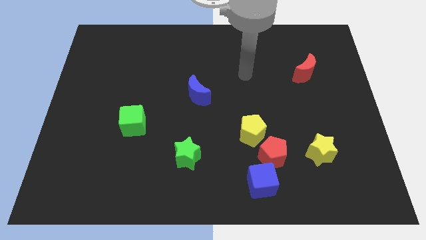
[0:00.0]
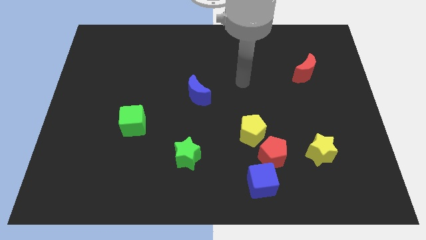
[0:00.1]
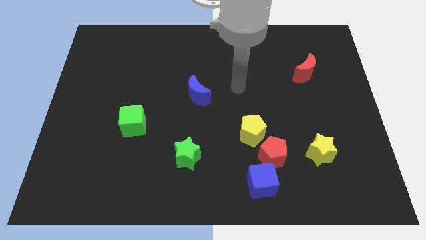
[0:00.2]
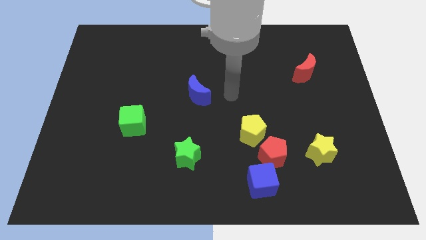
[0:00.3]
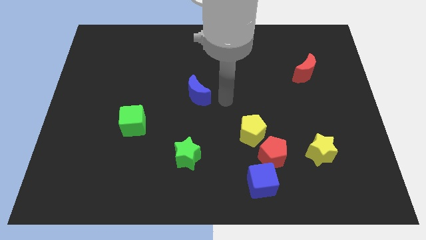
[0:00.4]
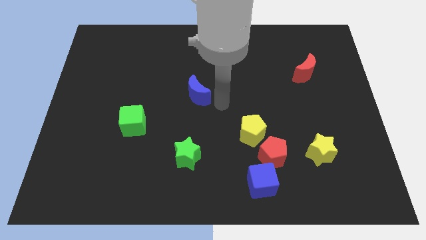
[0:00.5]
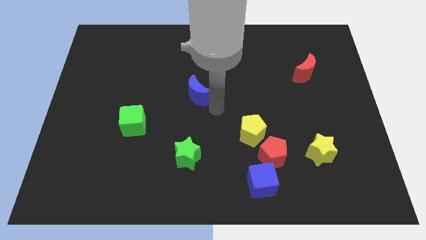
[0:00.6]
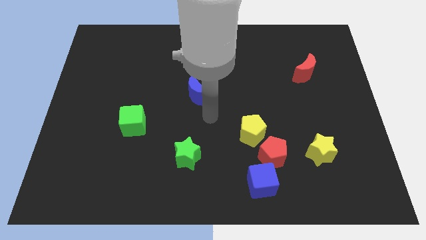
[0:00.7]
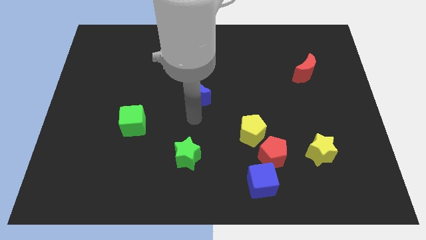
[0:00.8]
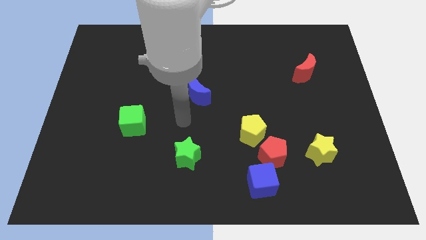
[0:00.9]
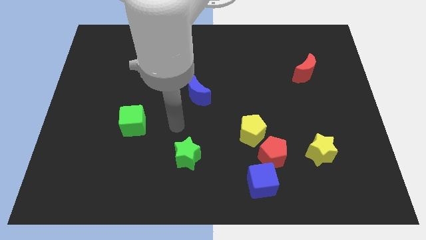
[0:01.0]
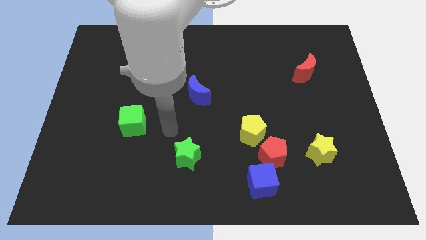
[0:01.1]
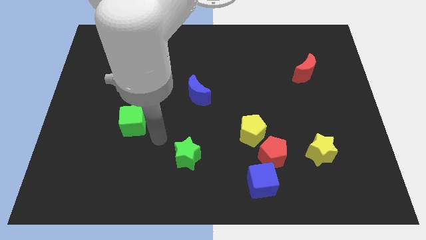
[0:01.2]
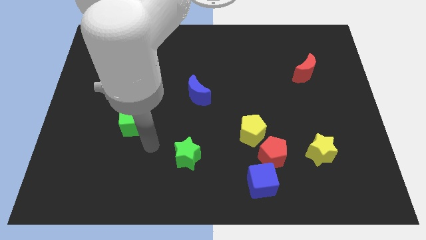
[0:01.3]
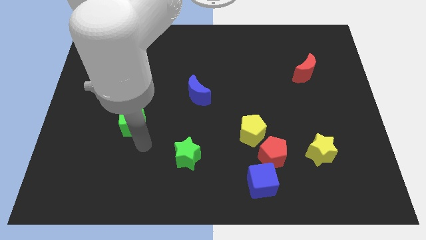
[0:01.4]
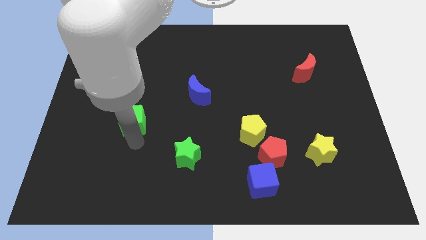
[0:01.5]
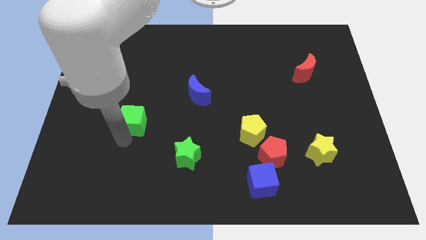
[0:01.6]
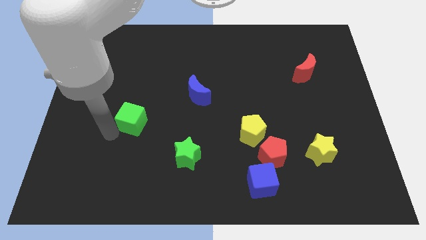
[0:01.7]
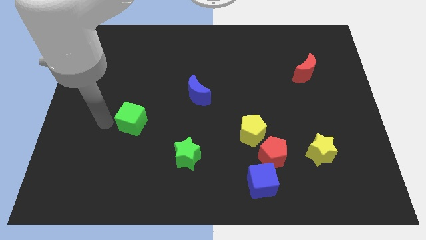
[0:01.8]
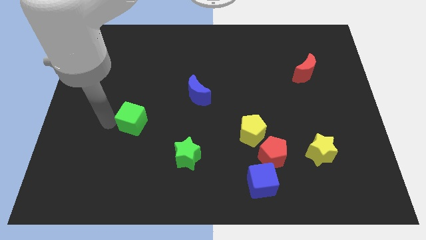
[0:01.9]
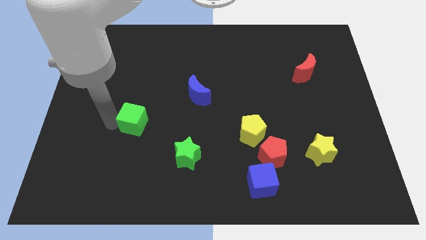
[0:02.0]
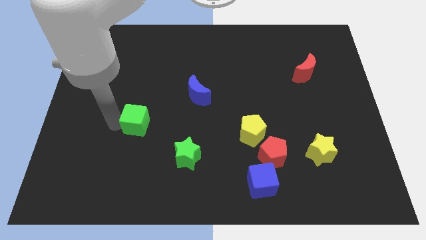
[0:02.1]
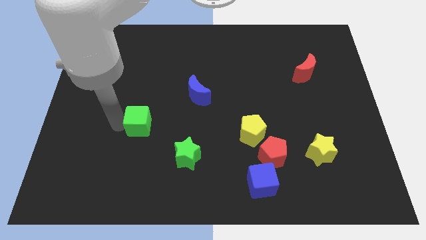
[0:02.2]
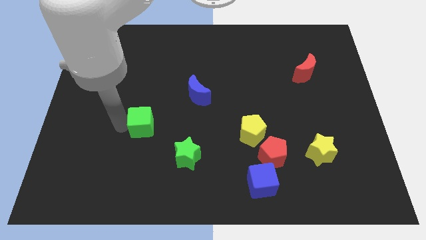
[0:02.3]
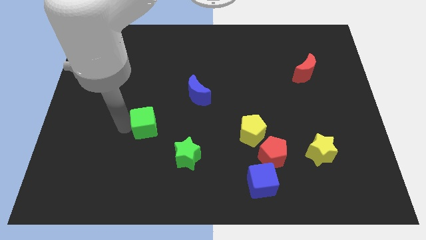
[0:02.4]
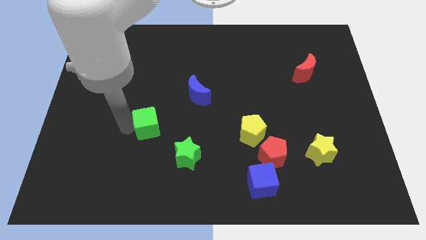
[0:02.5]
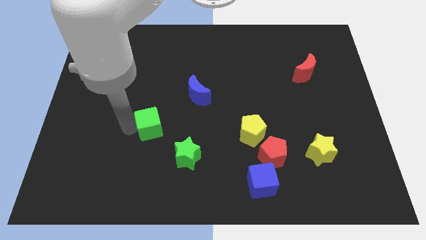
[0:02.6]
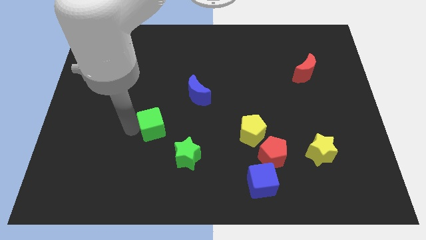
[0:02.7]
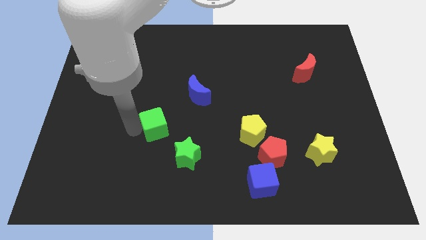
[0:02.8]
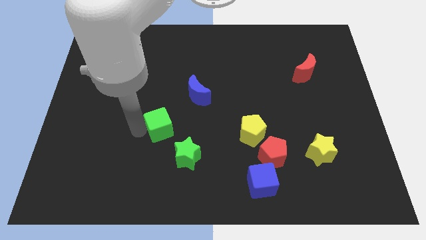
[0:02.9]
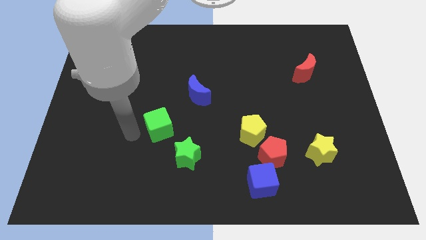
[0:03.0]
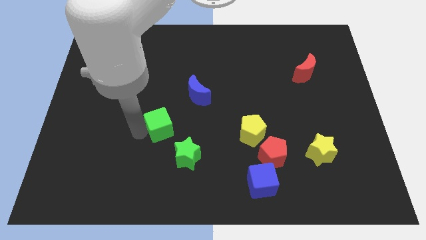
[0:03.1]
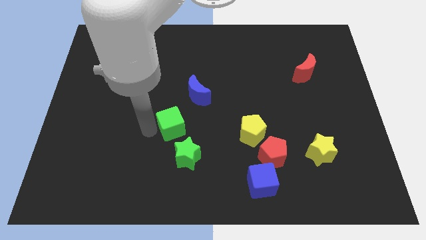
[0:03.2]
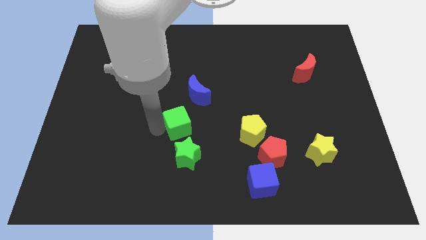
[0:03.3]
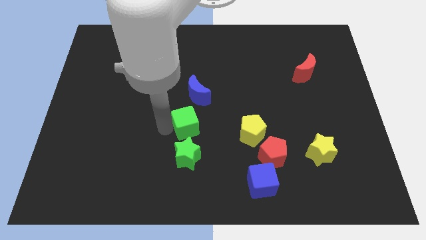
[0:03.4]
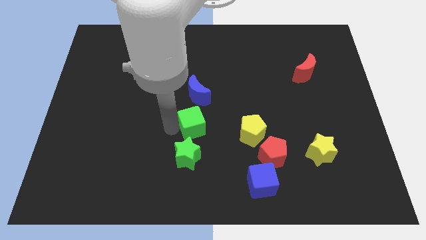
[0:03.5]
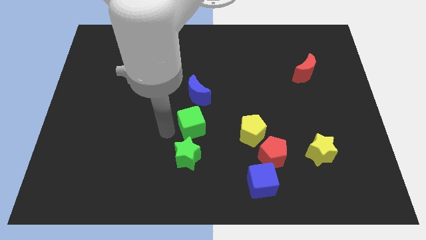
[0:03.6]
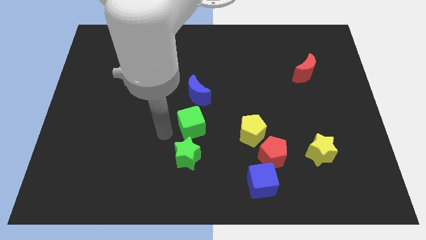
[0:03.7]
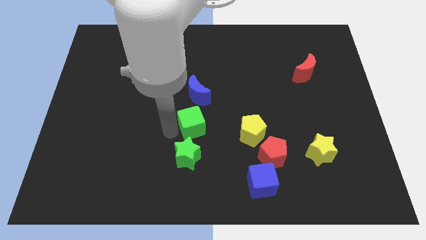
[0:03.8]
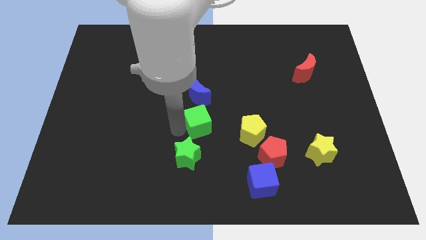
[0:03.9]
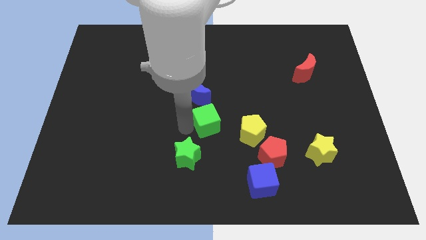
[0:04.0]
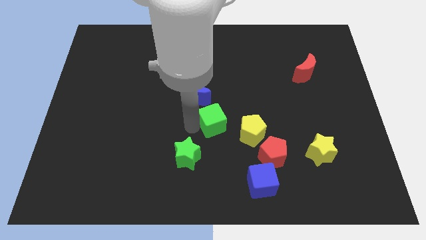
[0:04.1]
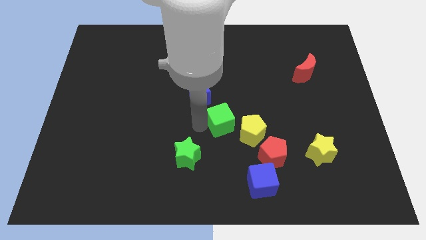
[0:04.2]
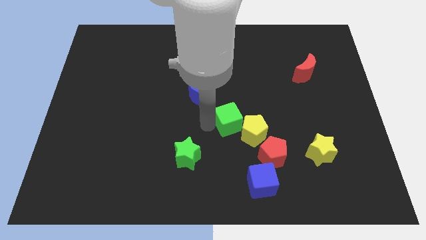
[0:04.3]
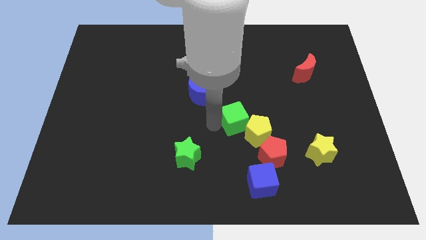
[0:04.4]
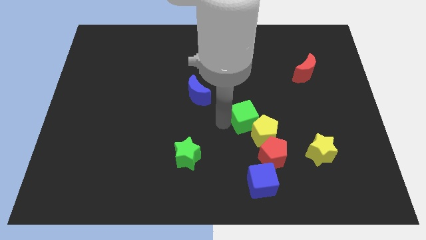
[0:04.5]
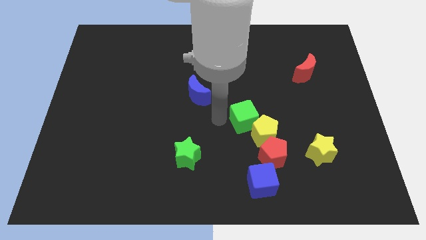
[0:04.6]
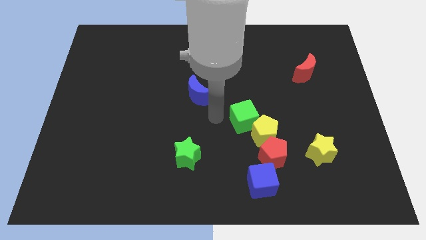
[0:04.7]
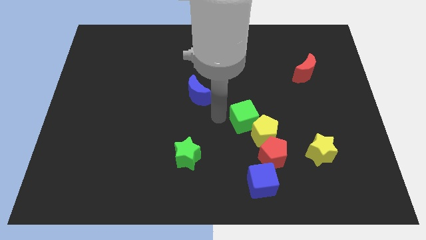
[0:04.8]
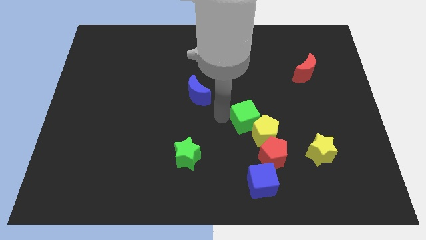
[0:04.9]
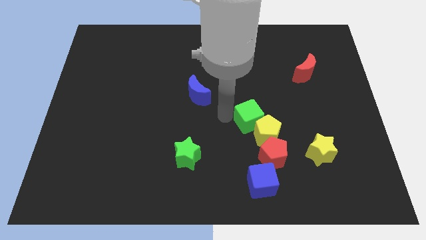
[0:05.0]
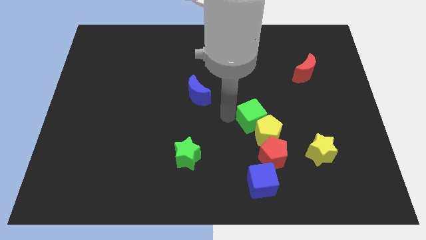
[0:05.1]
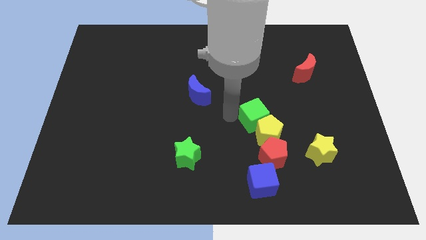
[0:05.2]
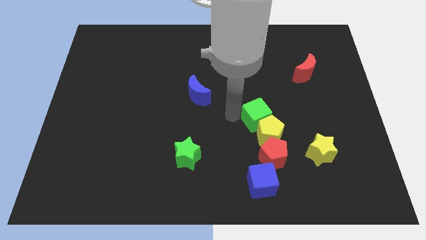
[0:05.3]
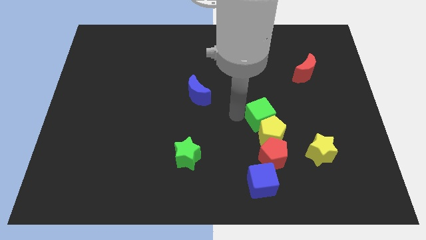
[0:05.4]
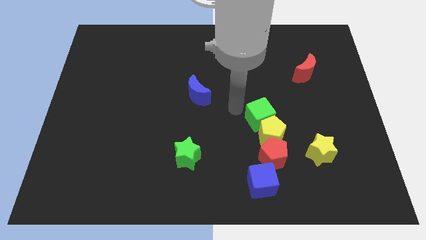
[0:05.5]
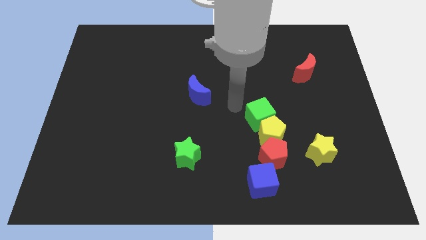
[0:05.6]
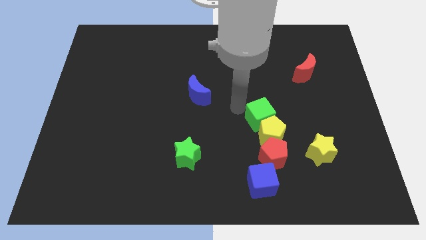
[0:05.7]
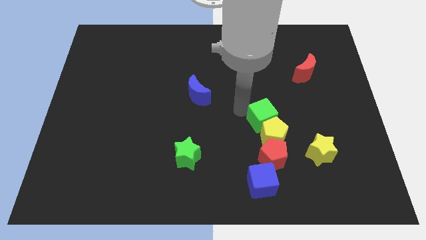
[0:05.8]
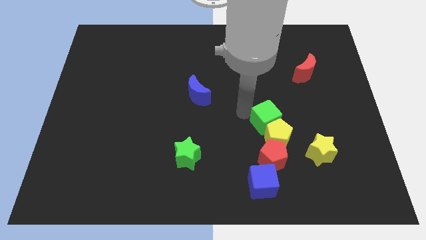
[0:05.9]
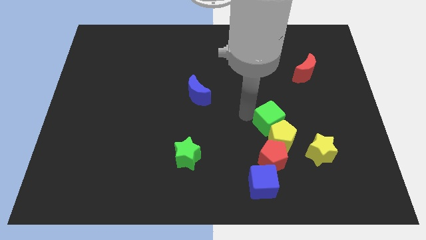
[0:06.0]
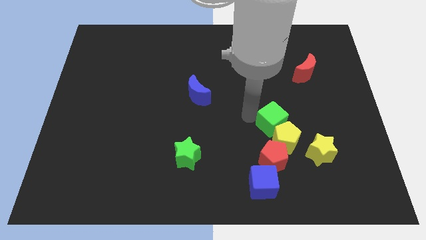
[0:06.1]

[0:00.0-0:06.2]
slide the green cube to the top left side of the yellow star
